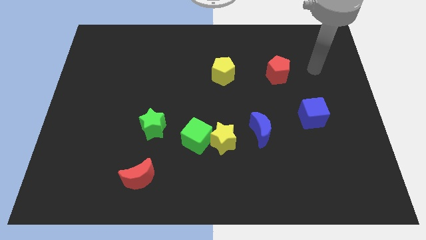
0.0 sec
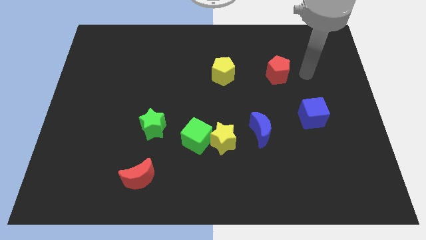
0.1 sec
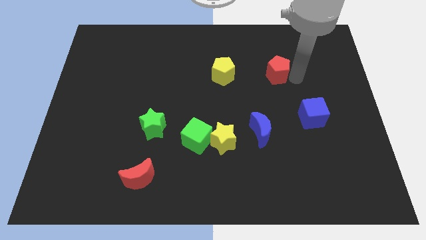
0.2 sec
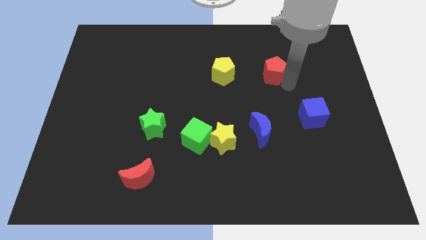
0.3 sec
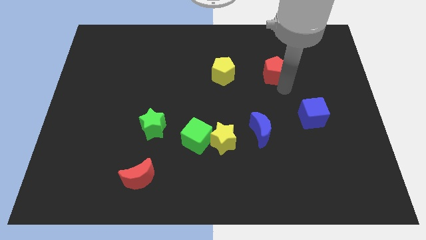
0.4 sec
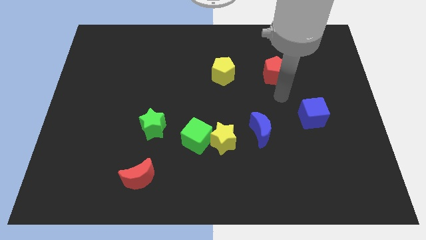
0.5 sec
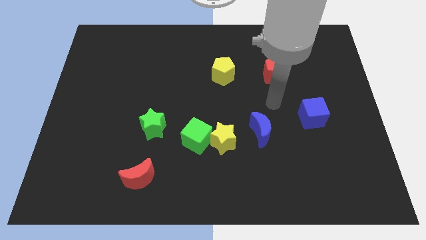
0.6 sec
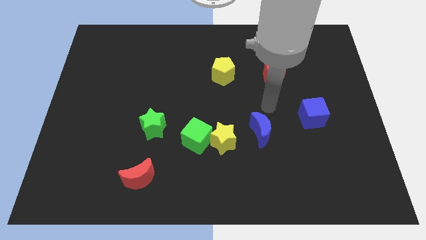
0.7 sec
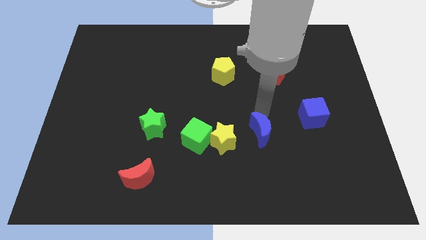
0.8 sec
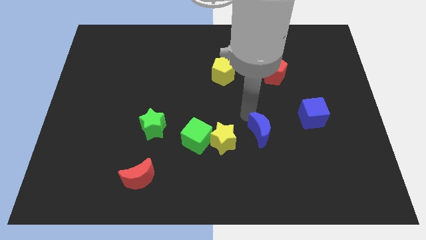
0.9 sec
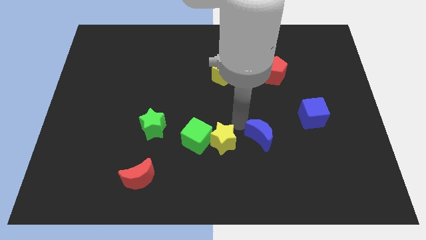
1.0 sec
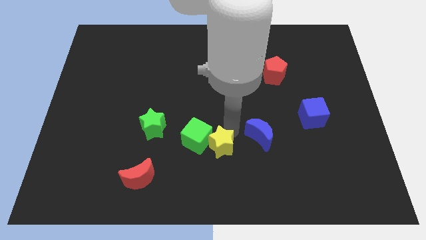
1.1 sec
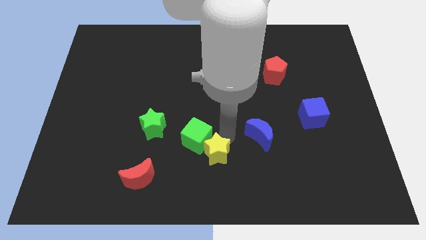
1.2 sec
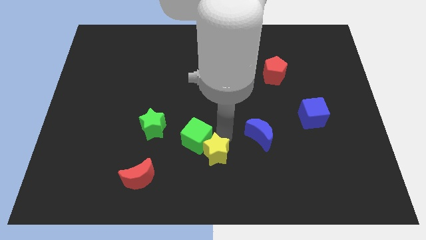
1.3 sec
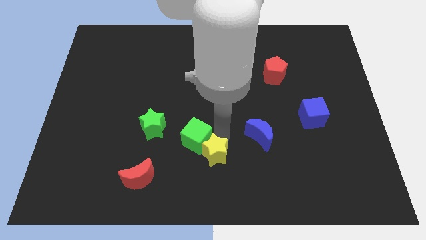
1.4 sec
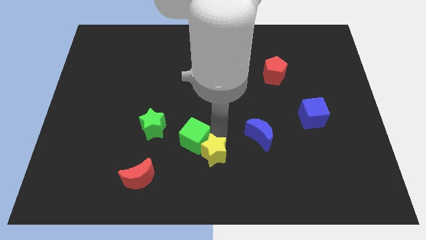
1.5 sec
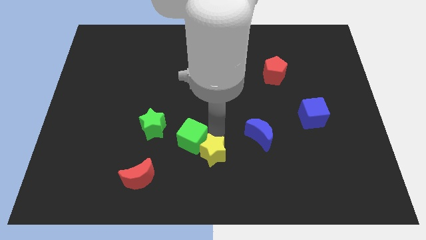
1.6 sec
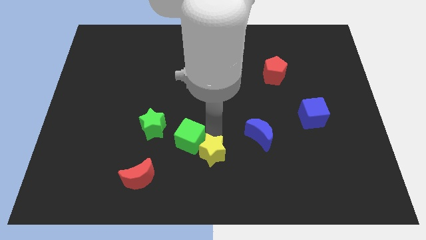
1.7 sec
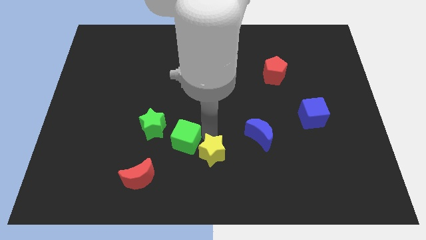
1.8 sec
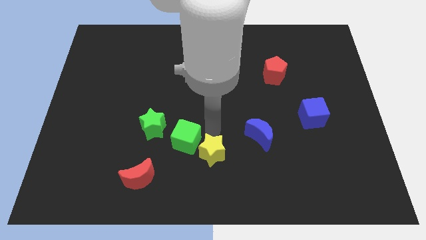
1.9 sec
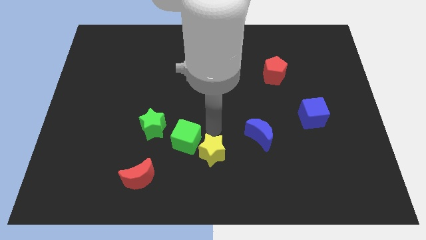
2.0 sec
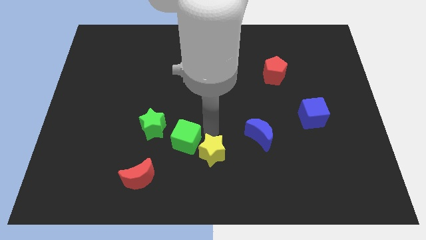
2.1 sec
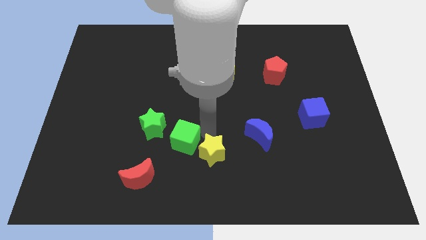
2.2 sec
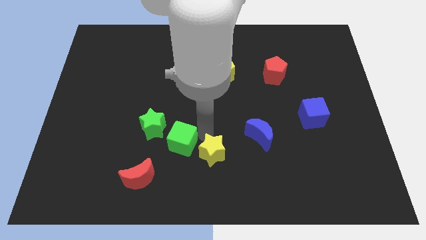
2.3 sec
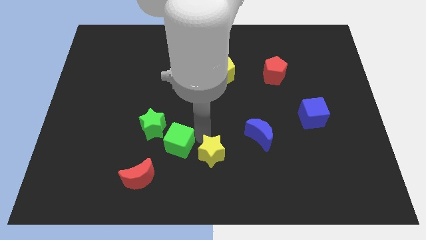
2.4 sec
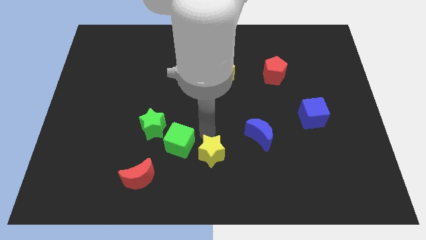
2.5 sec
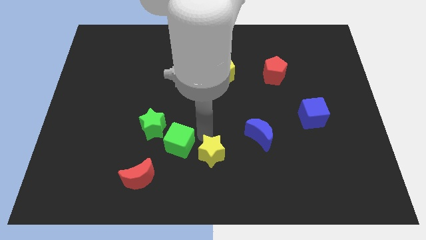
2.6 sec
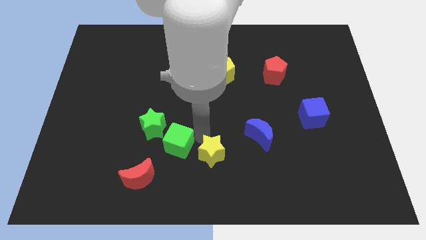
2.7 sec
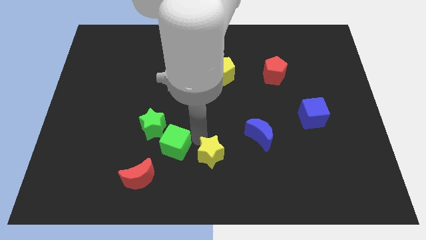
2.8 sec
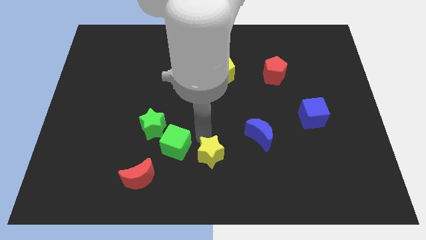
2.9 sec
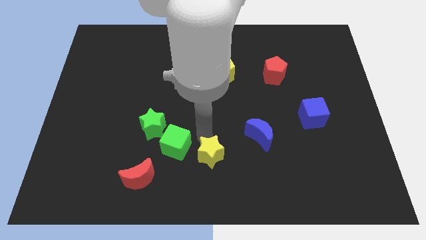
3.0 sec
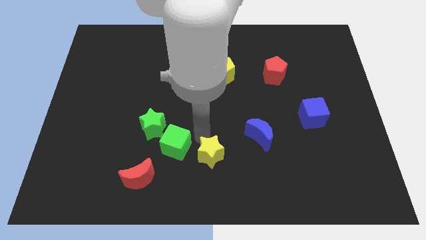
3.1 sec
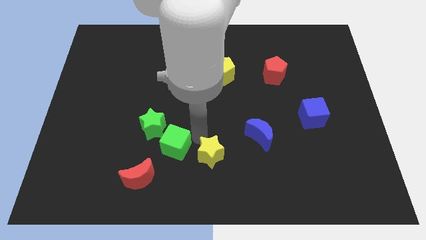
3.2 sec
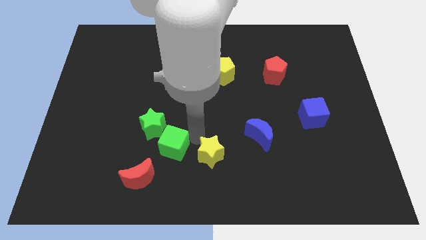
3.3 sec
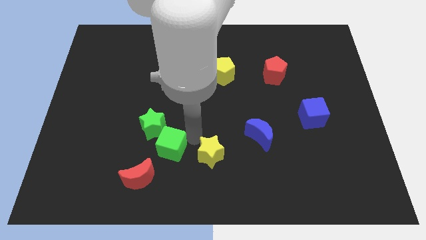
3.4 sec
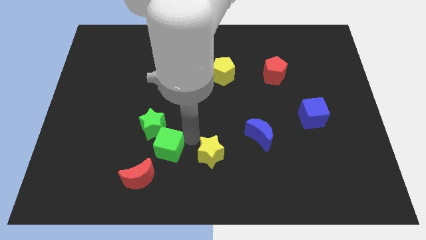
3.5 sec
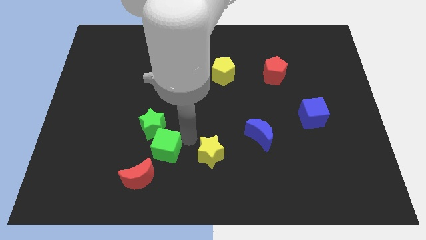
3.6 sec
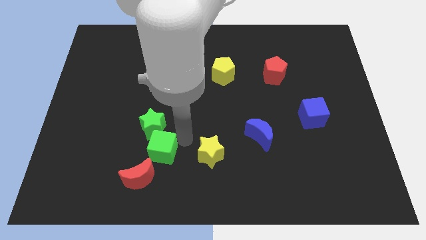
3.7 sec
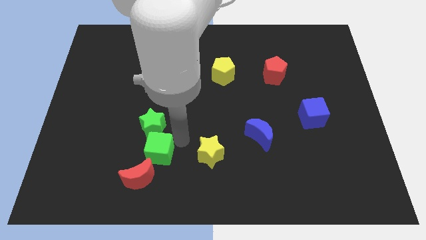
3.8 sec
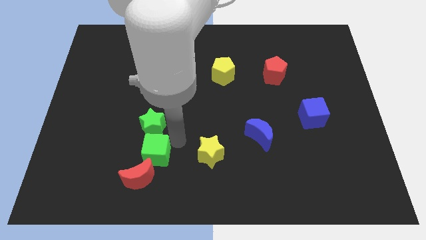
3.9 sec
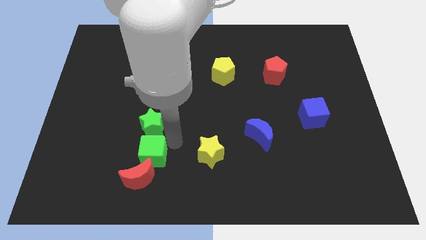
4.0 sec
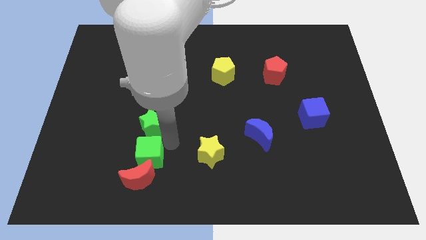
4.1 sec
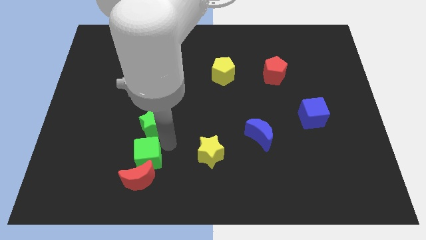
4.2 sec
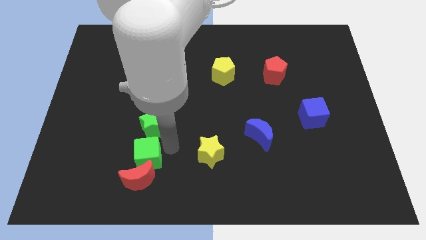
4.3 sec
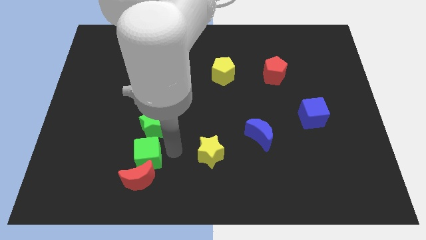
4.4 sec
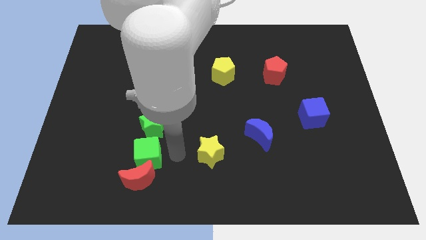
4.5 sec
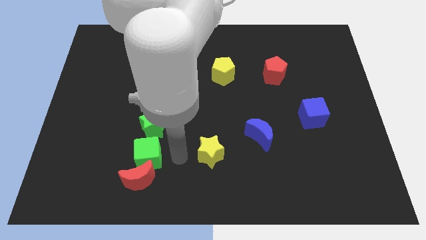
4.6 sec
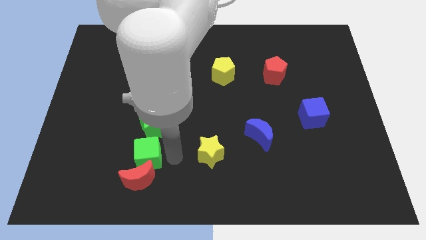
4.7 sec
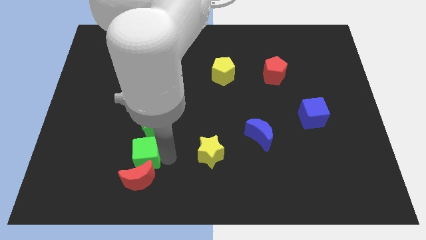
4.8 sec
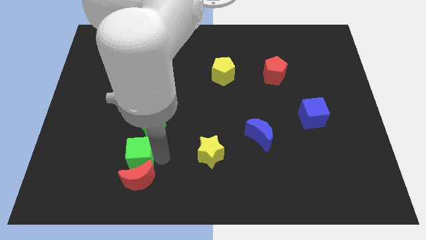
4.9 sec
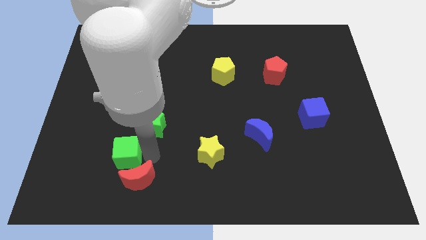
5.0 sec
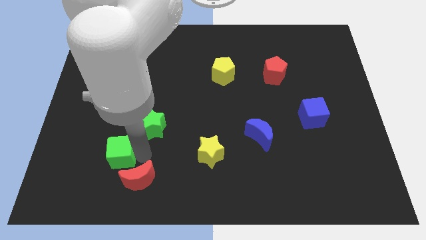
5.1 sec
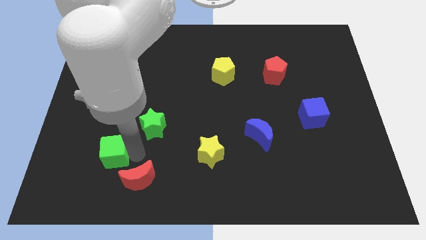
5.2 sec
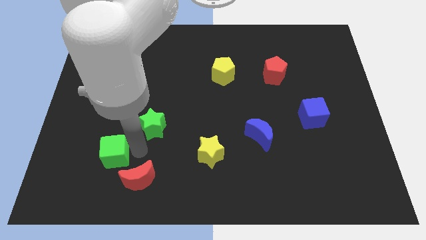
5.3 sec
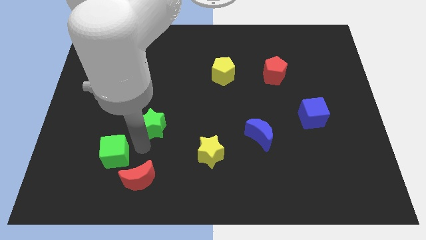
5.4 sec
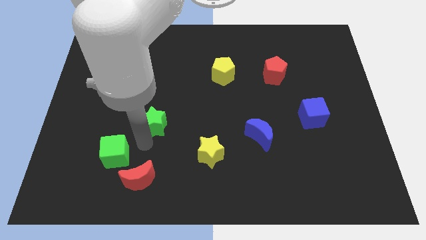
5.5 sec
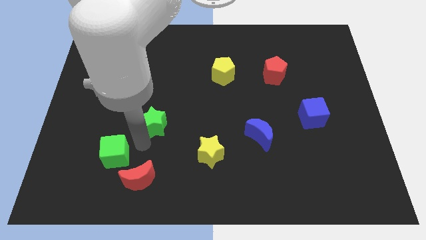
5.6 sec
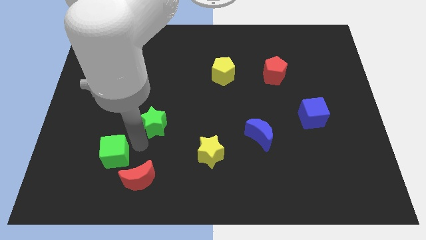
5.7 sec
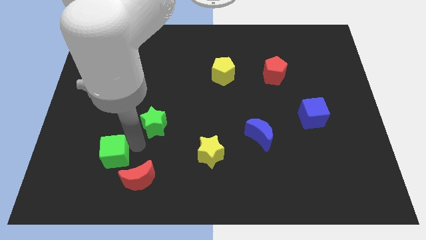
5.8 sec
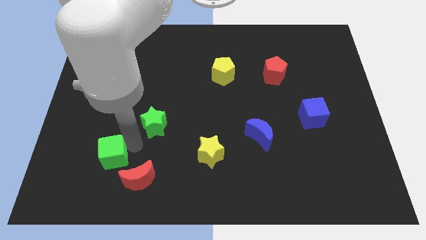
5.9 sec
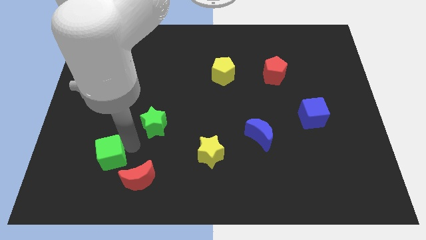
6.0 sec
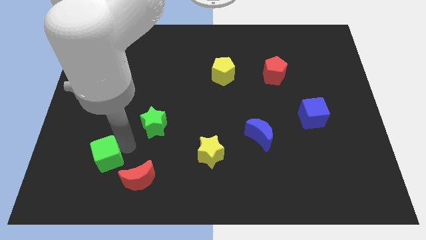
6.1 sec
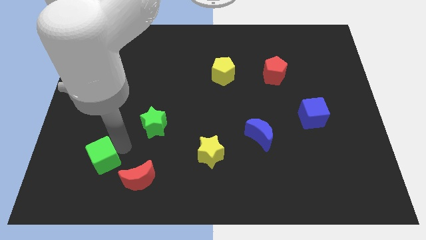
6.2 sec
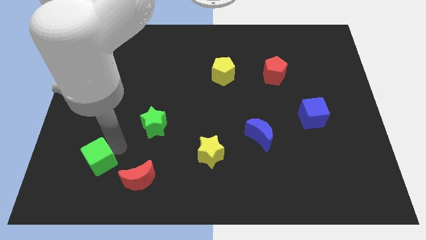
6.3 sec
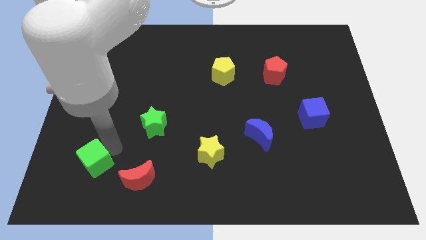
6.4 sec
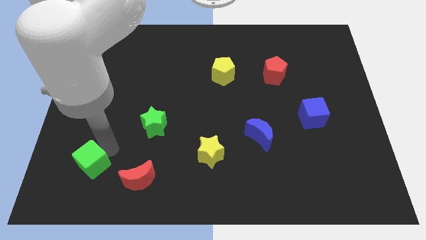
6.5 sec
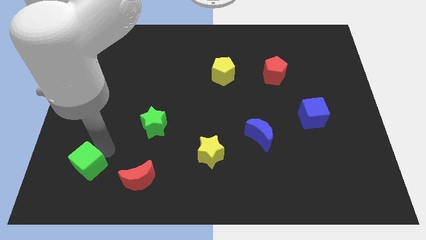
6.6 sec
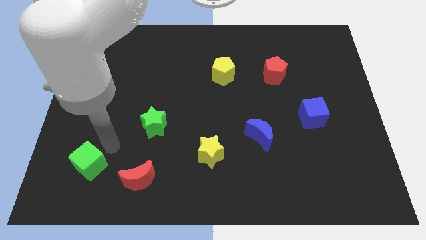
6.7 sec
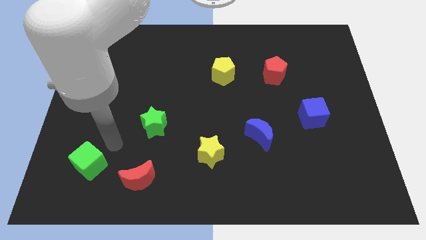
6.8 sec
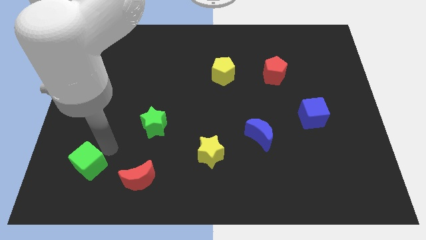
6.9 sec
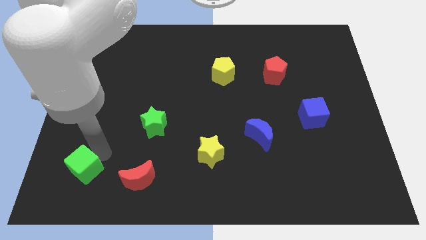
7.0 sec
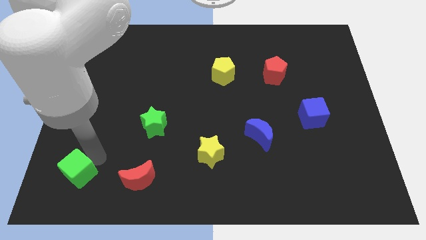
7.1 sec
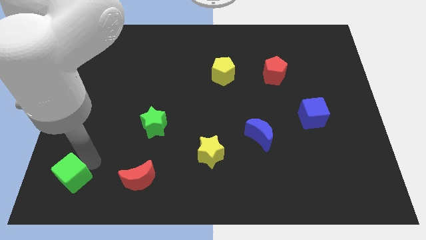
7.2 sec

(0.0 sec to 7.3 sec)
put the green cube to the bottom left
